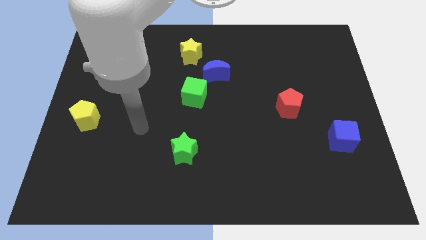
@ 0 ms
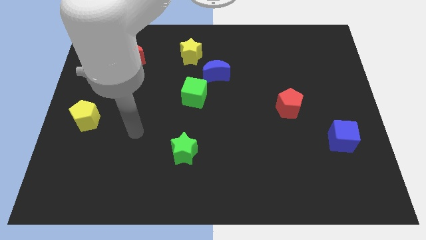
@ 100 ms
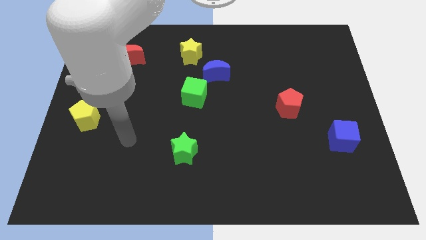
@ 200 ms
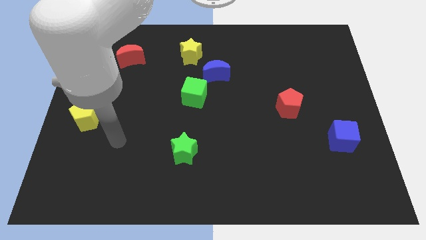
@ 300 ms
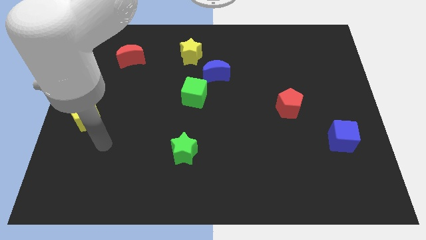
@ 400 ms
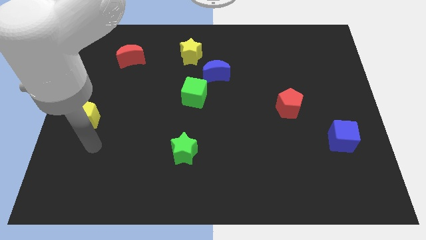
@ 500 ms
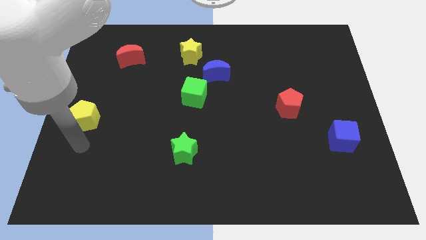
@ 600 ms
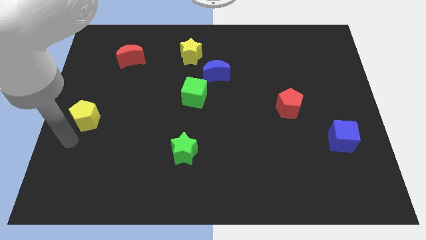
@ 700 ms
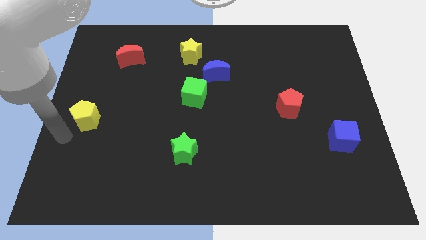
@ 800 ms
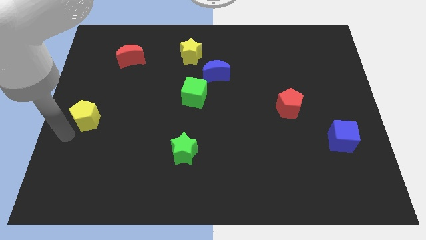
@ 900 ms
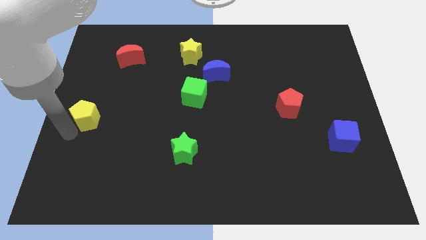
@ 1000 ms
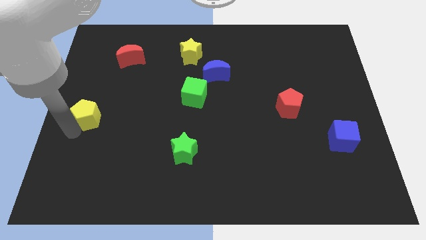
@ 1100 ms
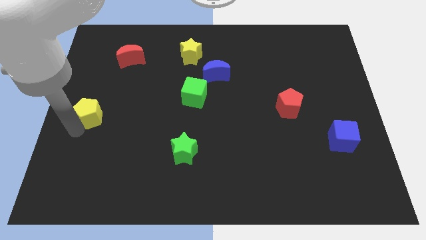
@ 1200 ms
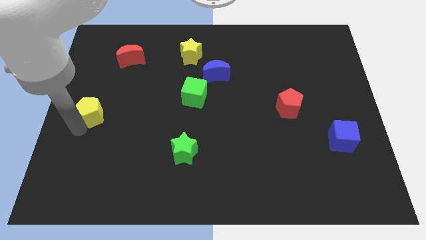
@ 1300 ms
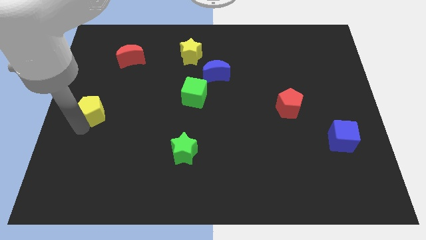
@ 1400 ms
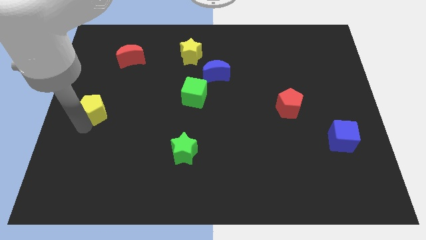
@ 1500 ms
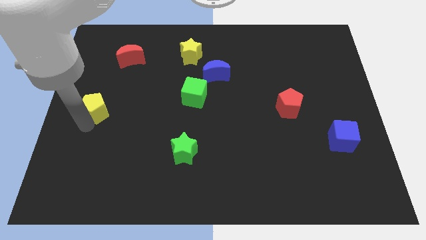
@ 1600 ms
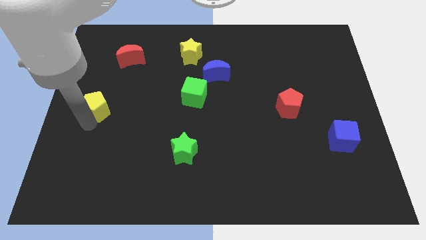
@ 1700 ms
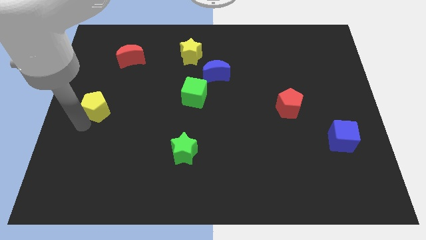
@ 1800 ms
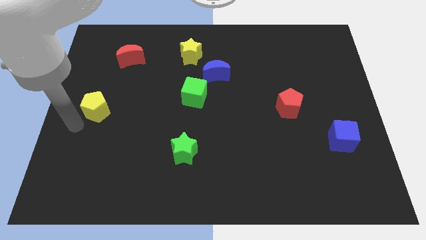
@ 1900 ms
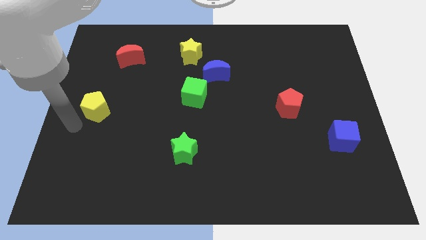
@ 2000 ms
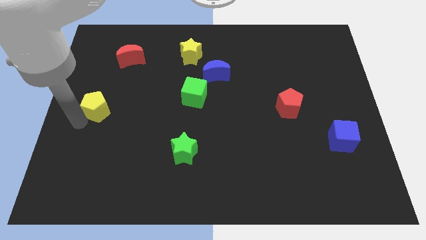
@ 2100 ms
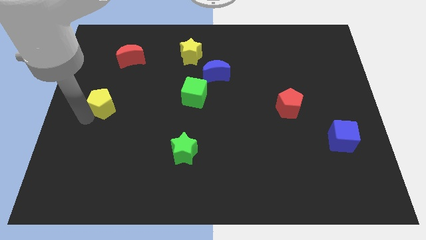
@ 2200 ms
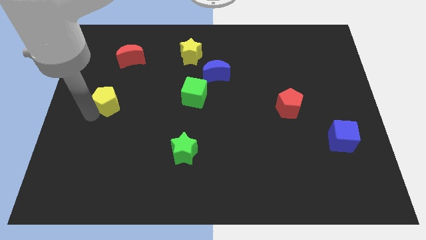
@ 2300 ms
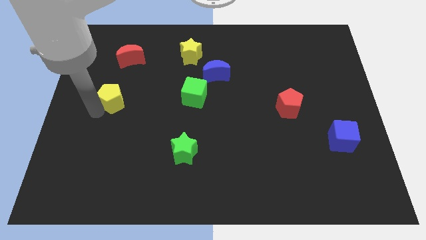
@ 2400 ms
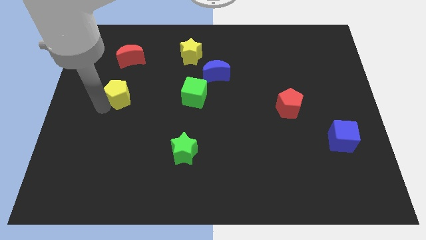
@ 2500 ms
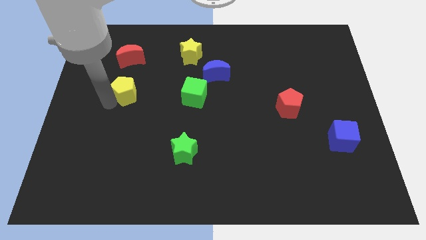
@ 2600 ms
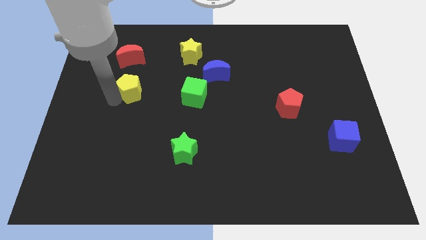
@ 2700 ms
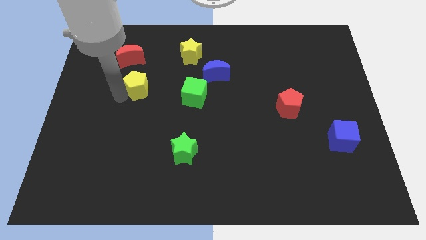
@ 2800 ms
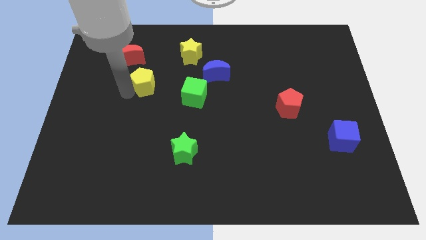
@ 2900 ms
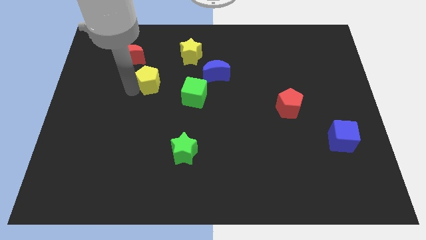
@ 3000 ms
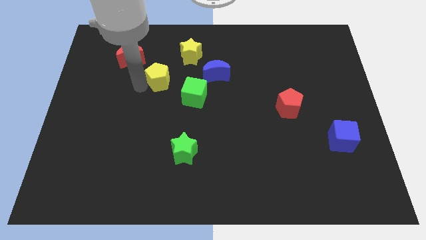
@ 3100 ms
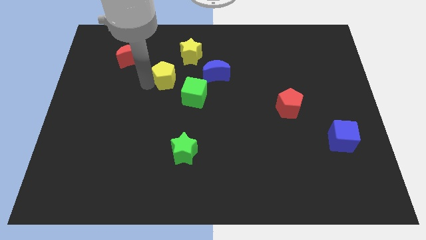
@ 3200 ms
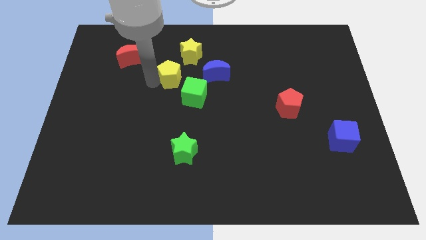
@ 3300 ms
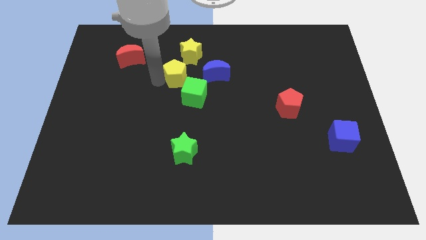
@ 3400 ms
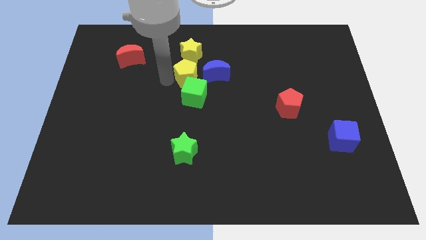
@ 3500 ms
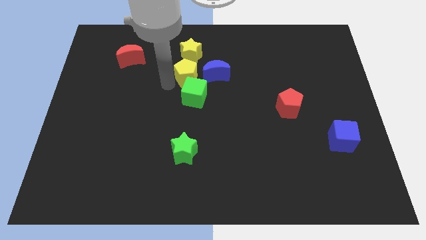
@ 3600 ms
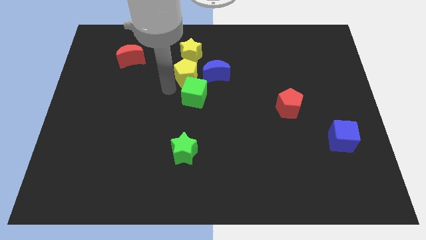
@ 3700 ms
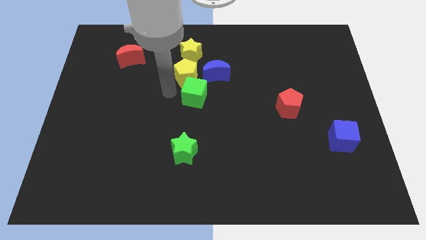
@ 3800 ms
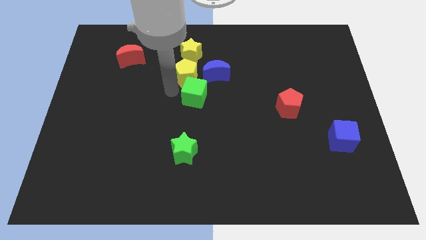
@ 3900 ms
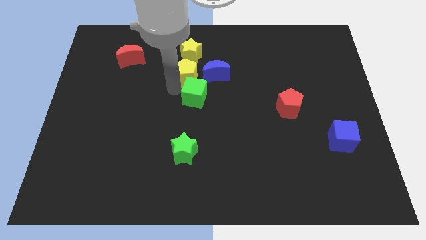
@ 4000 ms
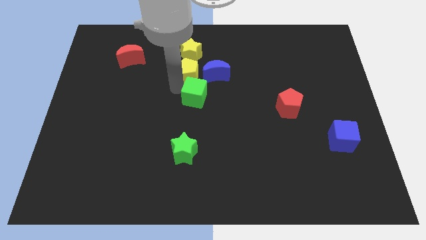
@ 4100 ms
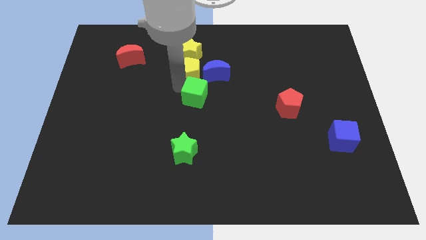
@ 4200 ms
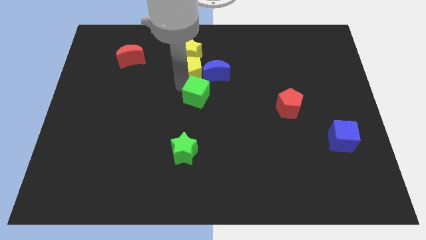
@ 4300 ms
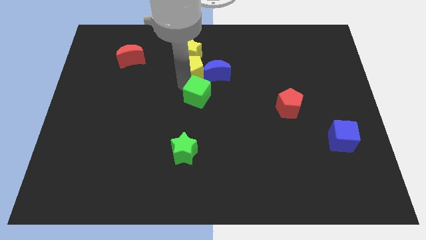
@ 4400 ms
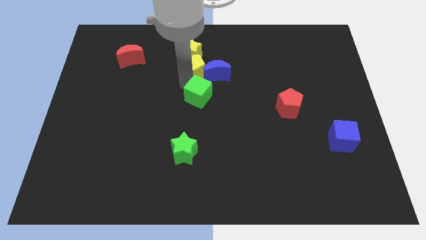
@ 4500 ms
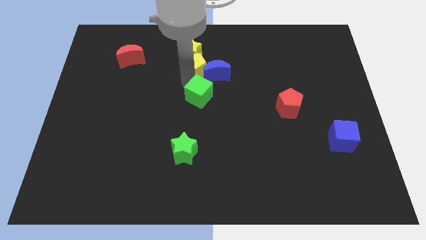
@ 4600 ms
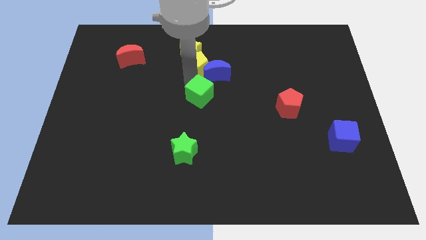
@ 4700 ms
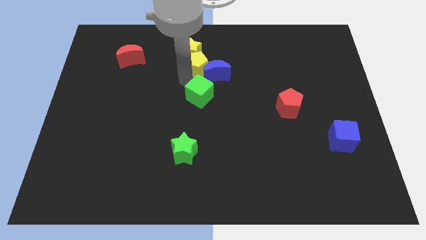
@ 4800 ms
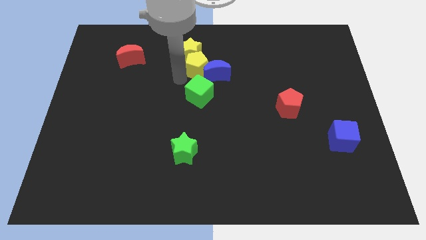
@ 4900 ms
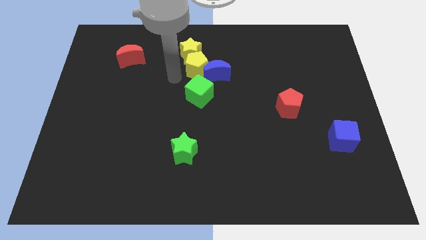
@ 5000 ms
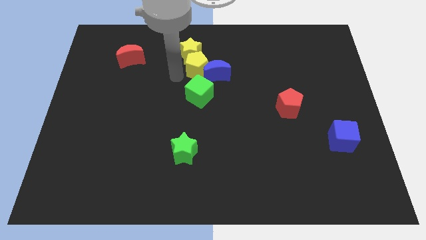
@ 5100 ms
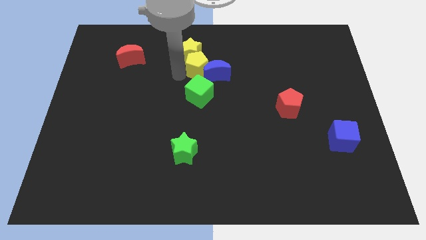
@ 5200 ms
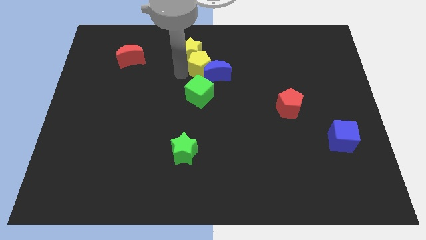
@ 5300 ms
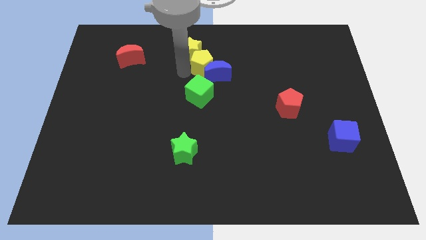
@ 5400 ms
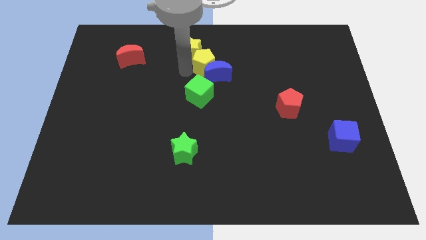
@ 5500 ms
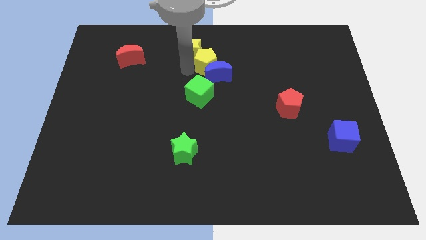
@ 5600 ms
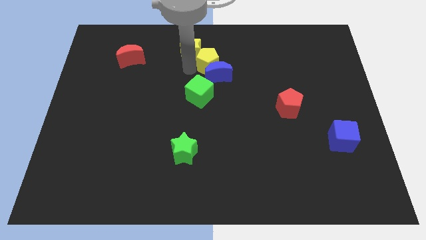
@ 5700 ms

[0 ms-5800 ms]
put the yellow pentagon to the top right side of the blue moon
